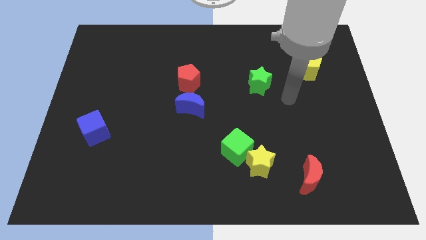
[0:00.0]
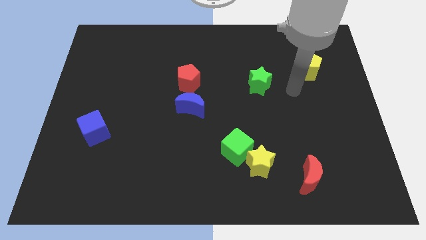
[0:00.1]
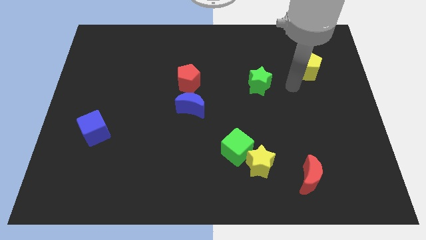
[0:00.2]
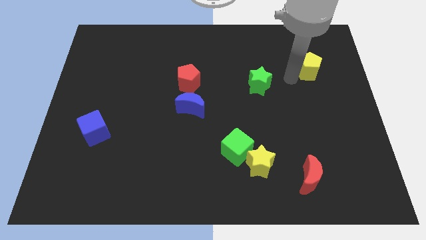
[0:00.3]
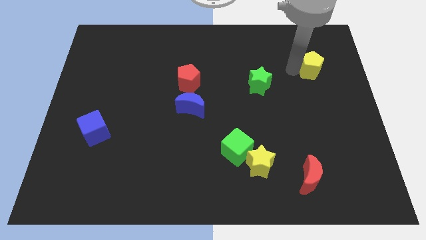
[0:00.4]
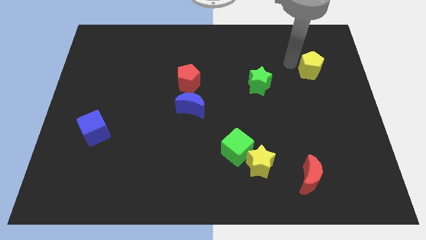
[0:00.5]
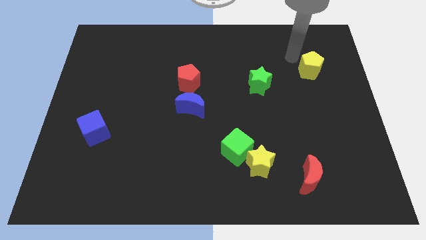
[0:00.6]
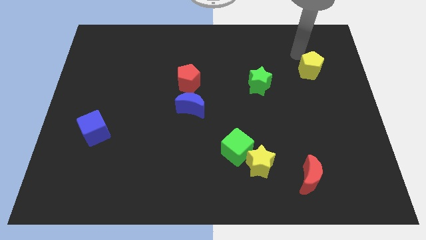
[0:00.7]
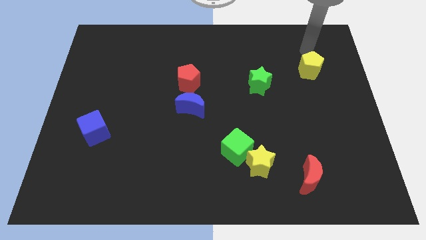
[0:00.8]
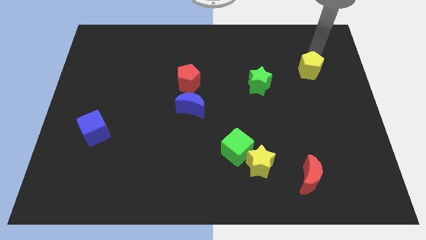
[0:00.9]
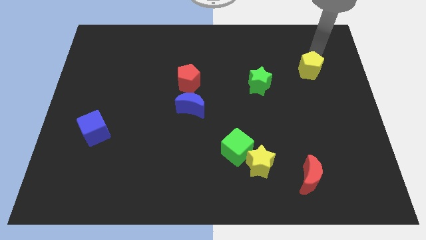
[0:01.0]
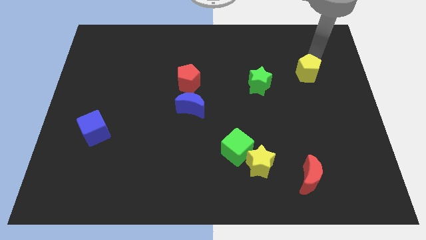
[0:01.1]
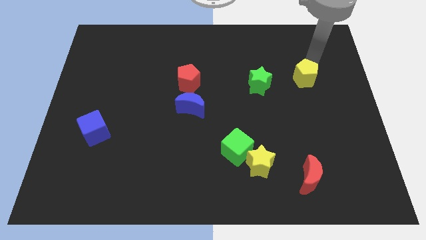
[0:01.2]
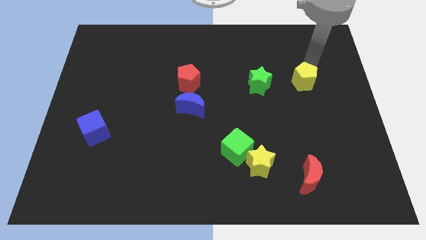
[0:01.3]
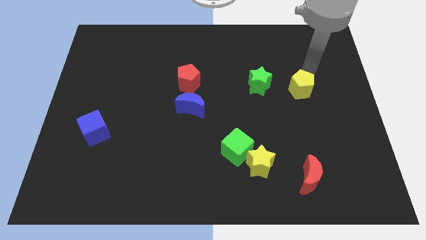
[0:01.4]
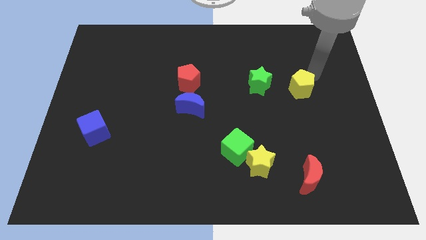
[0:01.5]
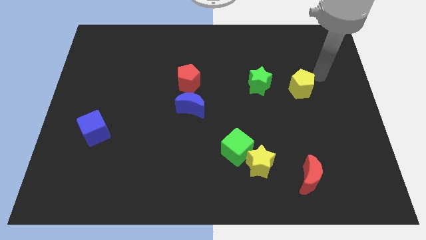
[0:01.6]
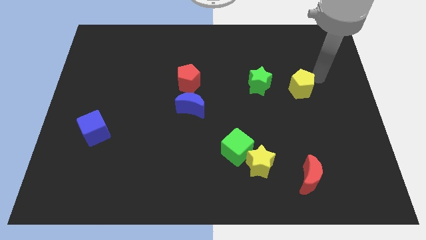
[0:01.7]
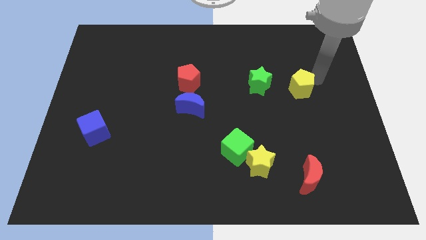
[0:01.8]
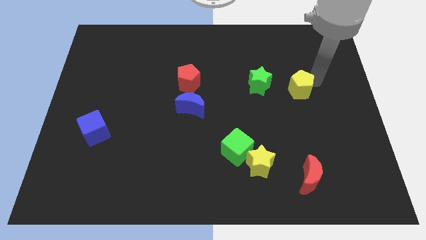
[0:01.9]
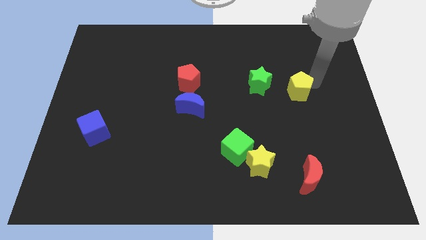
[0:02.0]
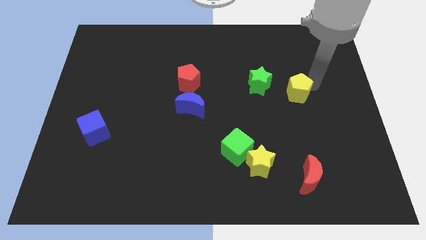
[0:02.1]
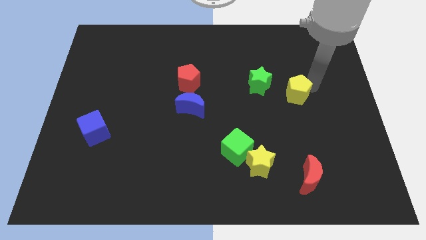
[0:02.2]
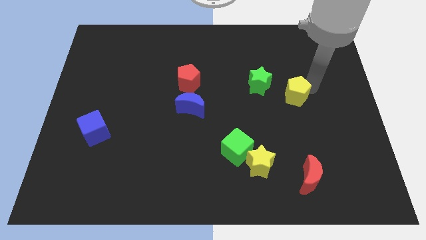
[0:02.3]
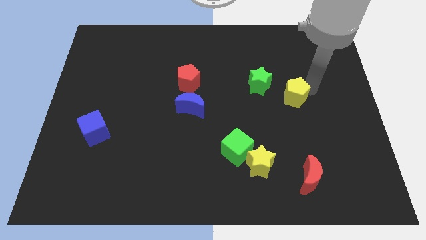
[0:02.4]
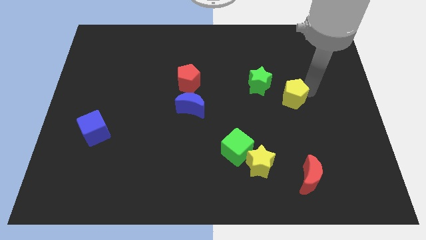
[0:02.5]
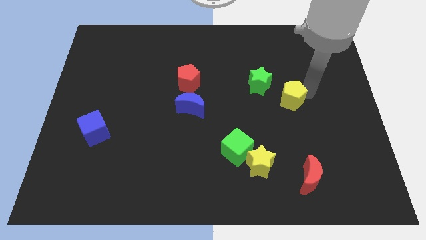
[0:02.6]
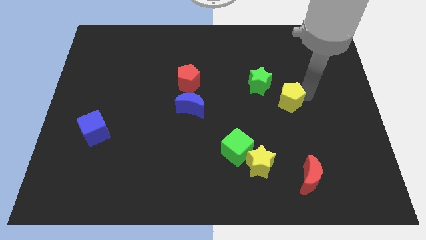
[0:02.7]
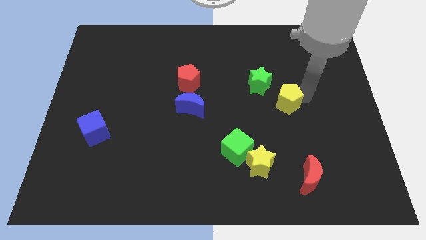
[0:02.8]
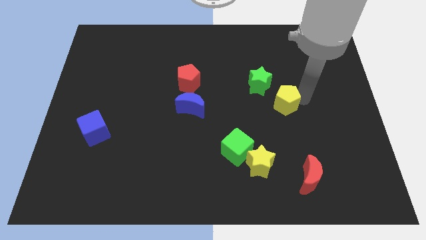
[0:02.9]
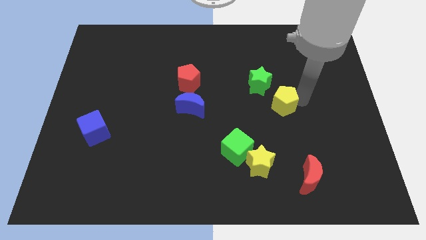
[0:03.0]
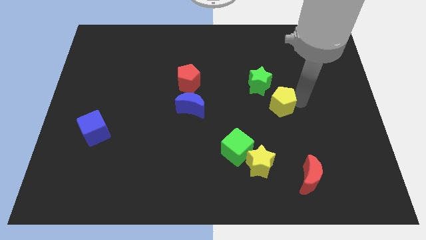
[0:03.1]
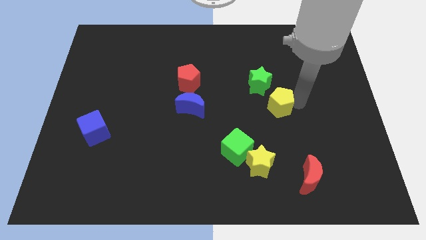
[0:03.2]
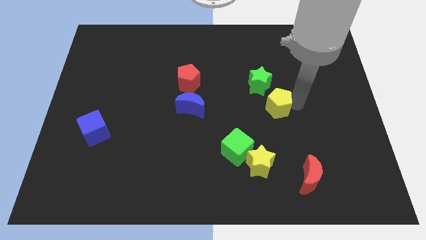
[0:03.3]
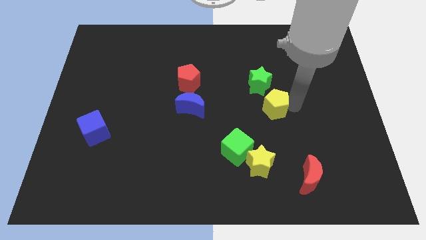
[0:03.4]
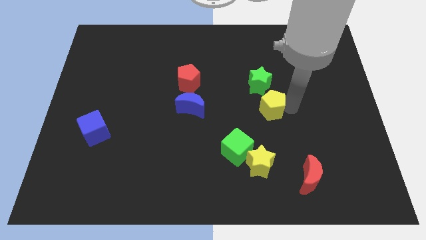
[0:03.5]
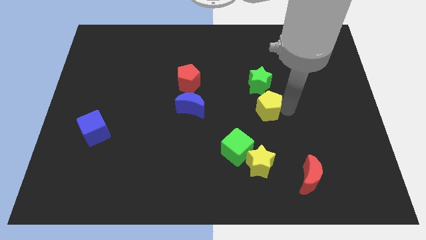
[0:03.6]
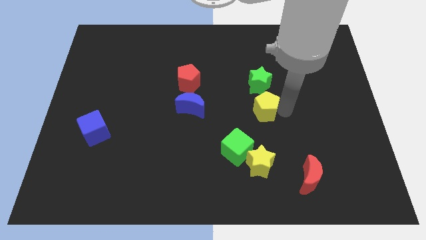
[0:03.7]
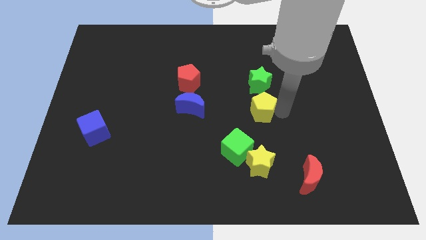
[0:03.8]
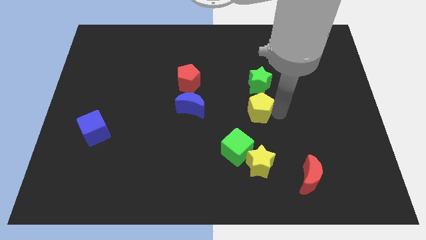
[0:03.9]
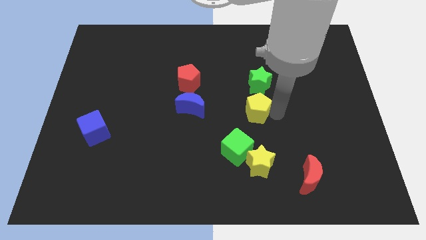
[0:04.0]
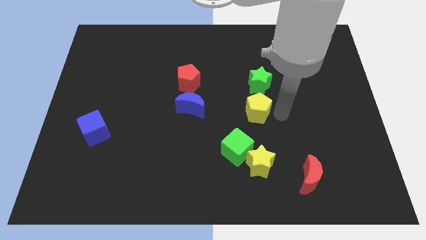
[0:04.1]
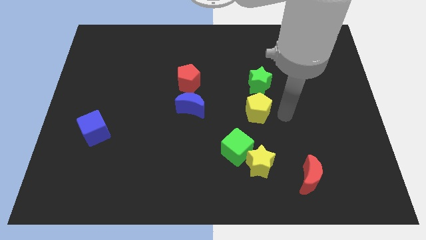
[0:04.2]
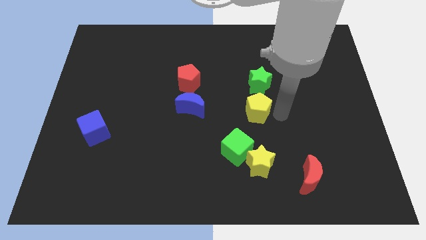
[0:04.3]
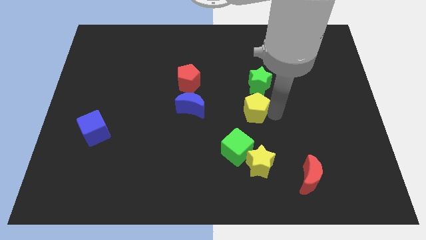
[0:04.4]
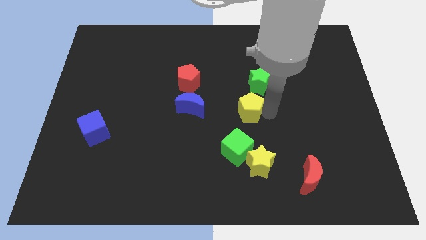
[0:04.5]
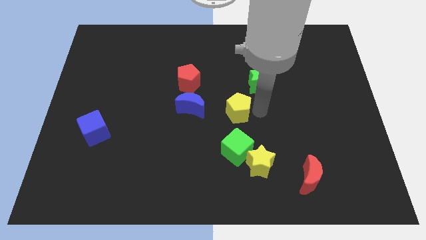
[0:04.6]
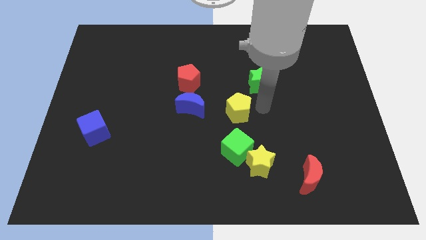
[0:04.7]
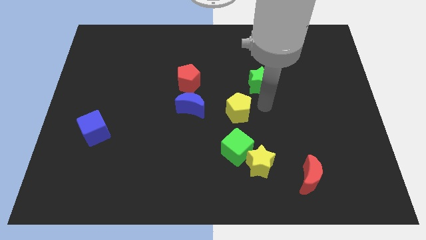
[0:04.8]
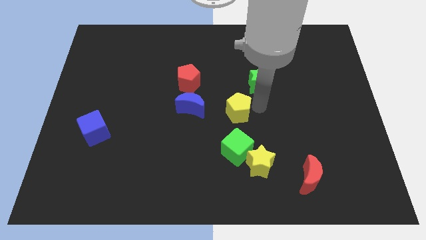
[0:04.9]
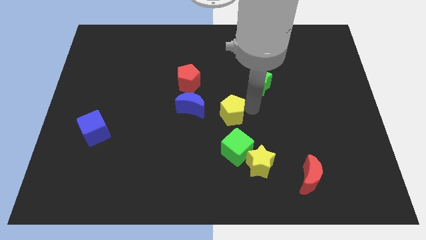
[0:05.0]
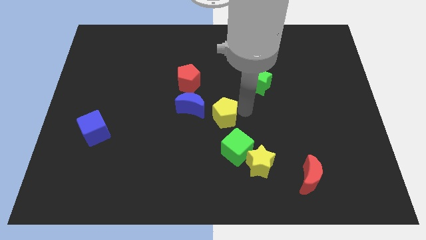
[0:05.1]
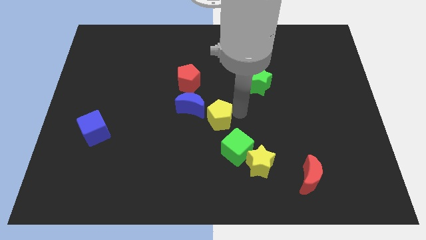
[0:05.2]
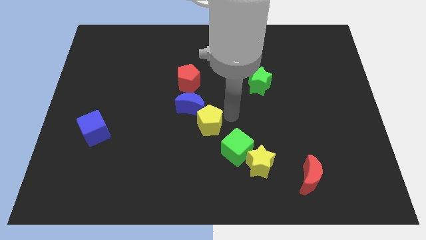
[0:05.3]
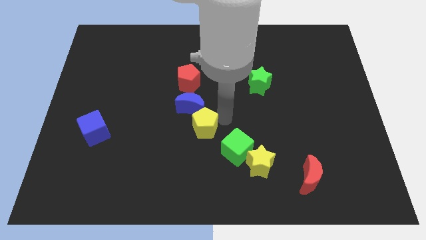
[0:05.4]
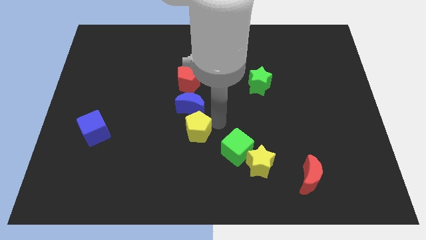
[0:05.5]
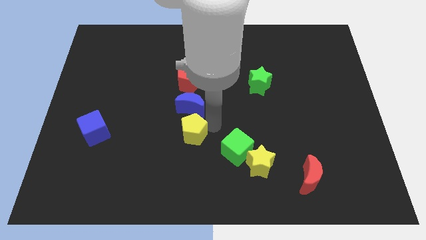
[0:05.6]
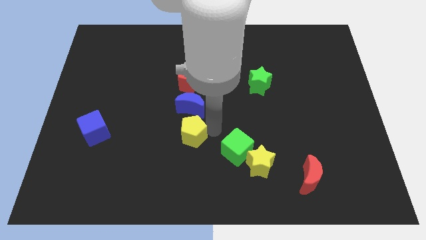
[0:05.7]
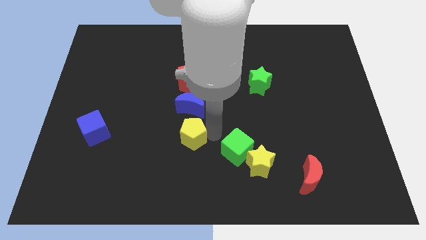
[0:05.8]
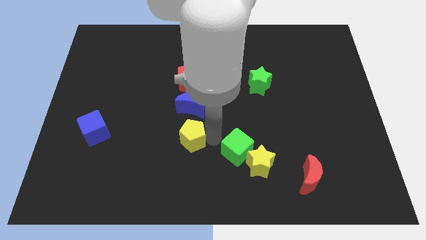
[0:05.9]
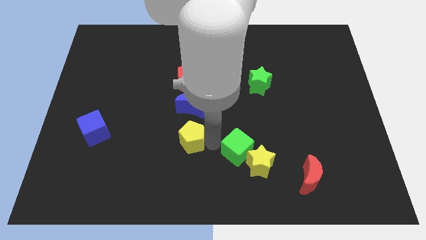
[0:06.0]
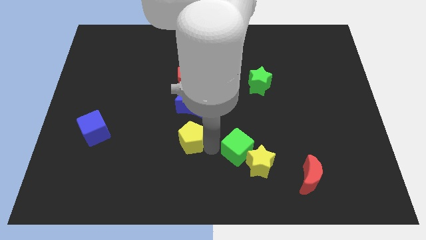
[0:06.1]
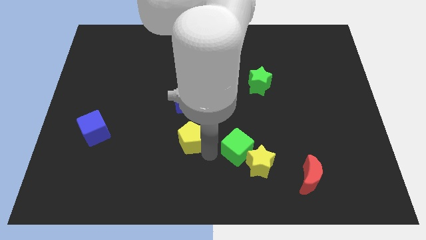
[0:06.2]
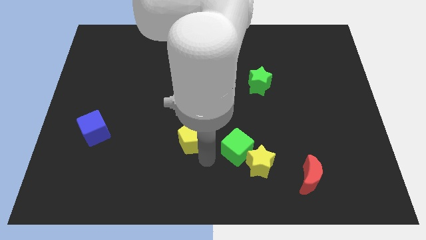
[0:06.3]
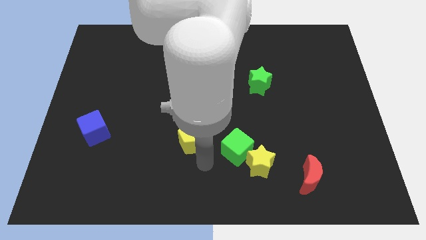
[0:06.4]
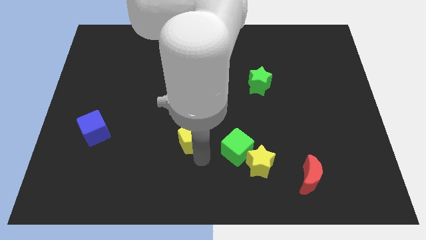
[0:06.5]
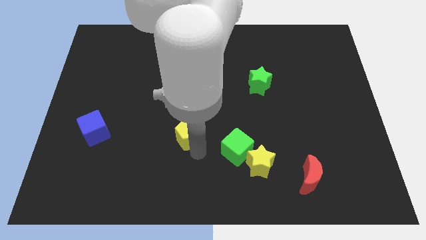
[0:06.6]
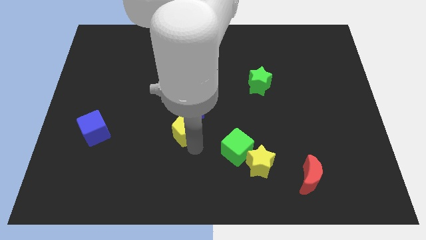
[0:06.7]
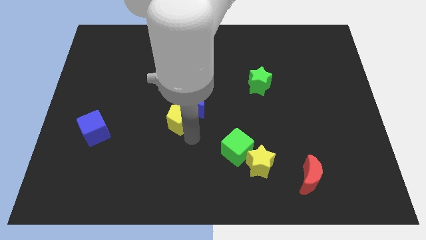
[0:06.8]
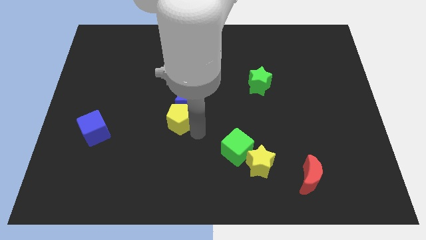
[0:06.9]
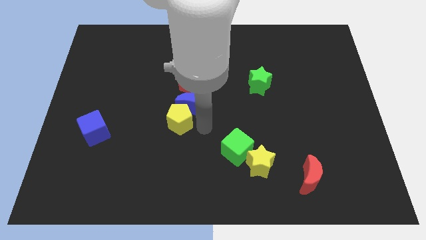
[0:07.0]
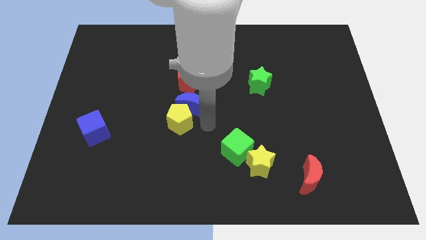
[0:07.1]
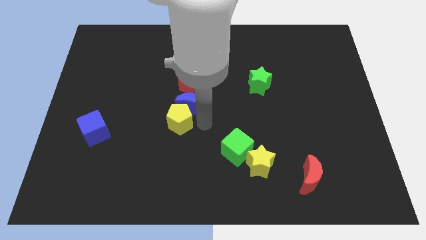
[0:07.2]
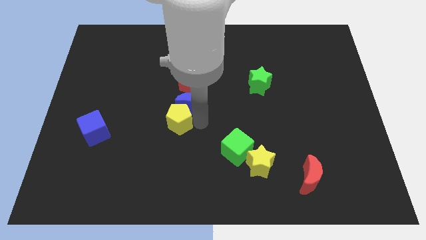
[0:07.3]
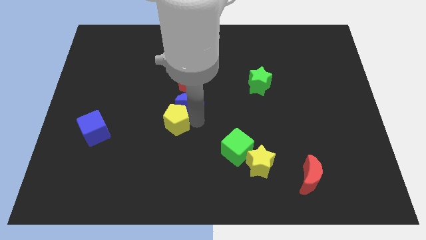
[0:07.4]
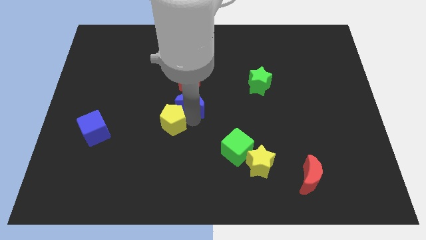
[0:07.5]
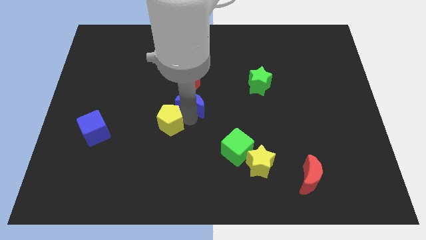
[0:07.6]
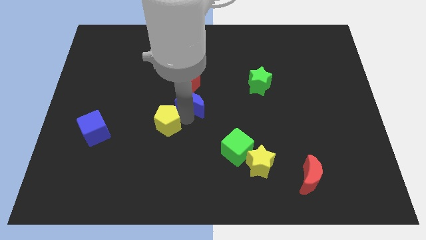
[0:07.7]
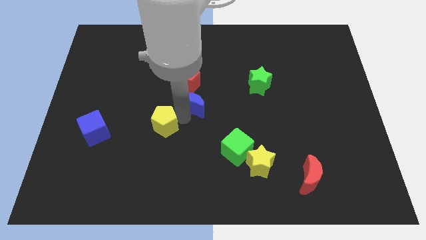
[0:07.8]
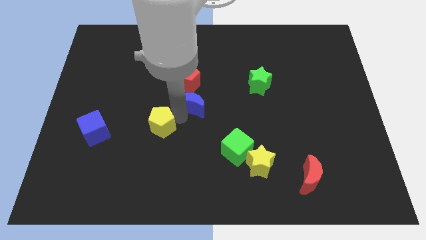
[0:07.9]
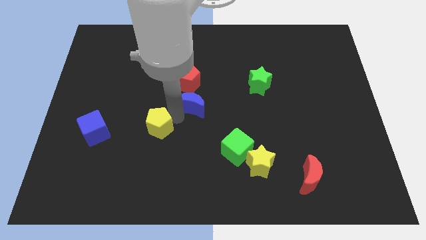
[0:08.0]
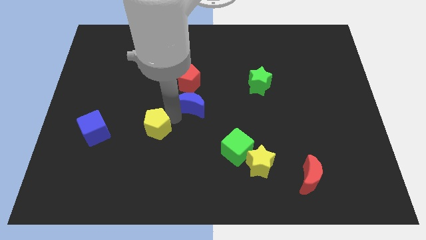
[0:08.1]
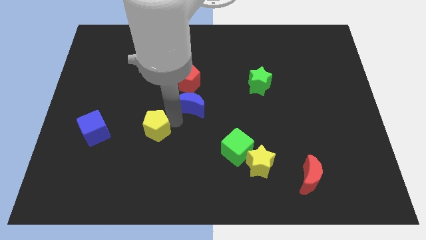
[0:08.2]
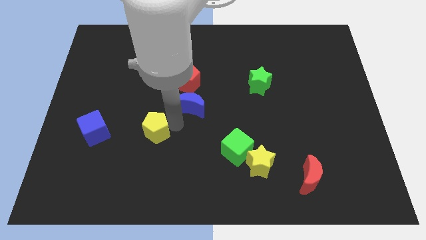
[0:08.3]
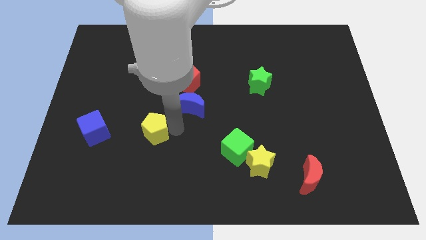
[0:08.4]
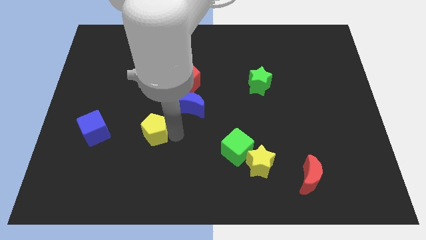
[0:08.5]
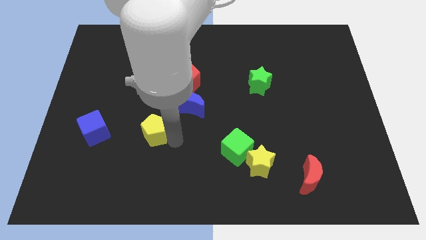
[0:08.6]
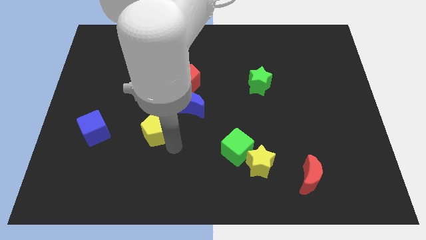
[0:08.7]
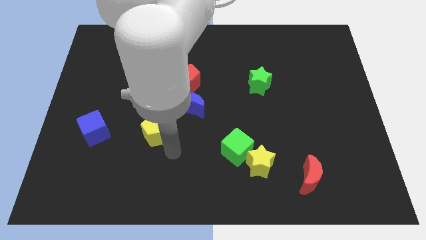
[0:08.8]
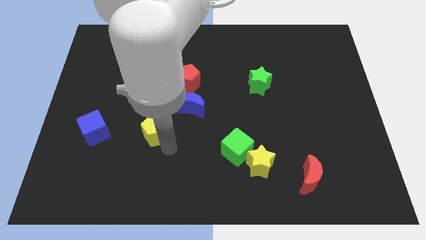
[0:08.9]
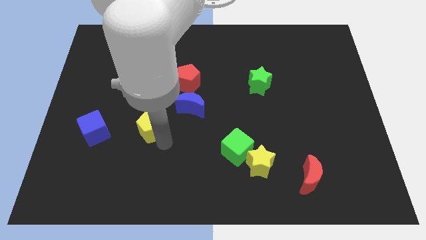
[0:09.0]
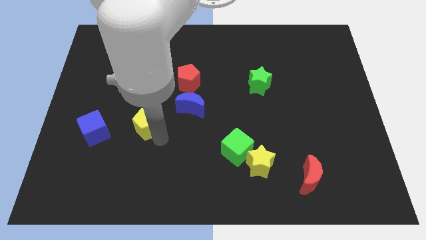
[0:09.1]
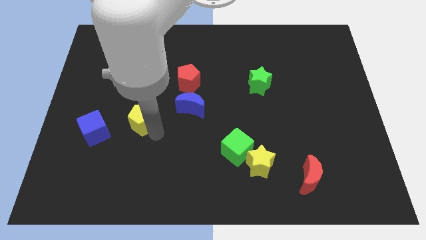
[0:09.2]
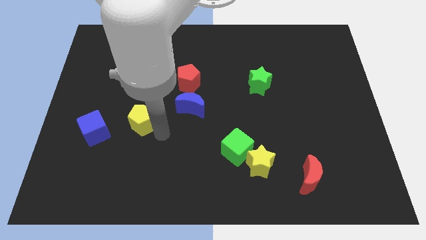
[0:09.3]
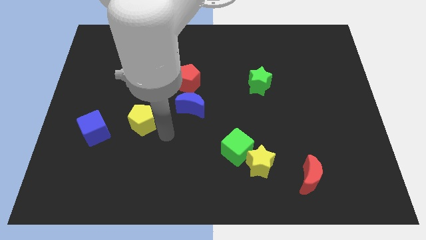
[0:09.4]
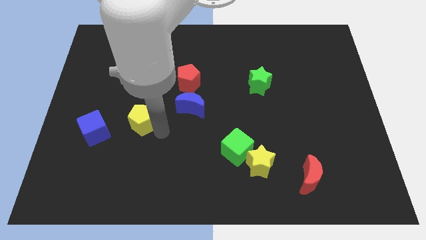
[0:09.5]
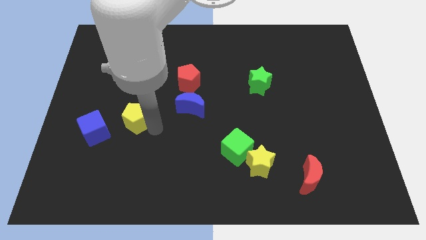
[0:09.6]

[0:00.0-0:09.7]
push the yellow pentagon to the top right of the blue cube
